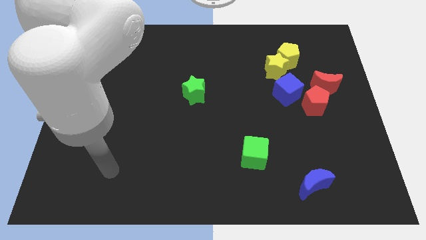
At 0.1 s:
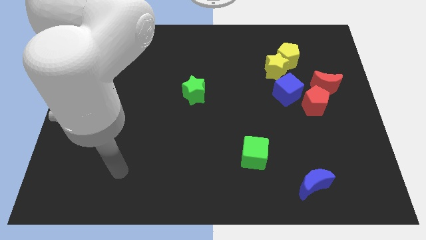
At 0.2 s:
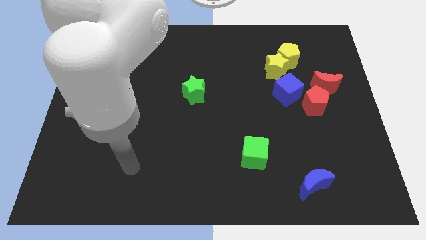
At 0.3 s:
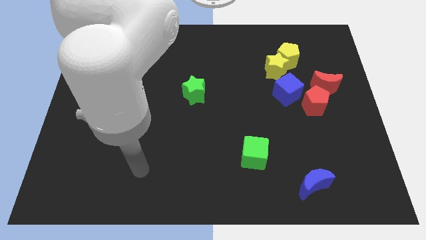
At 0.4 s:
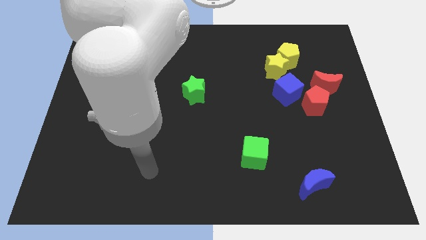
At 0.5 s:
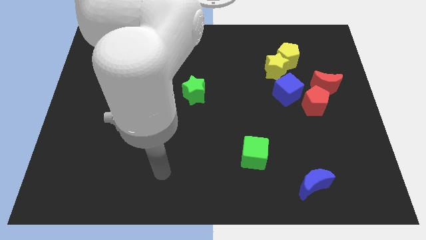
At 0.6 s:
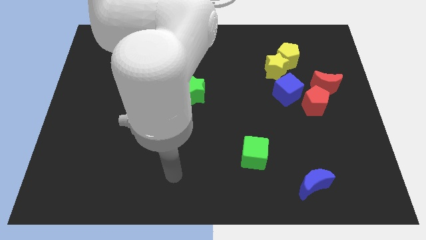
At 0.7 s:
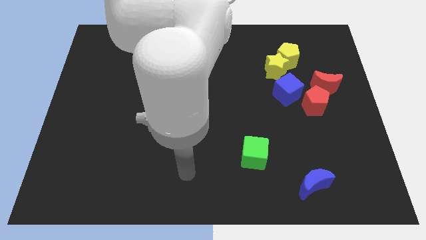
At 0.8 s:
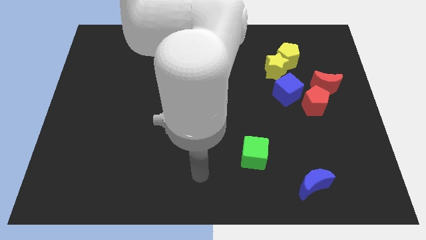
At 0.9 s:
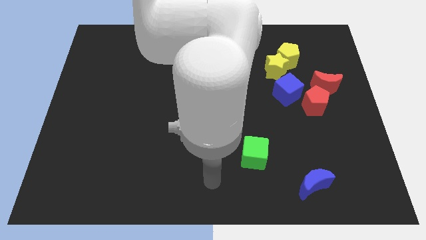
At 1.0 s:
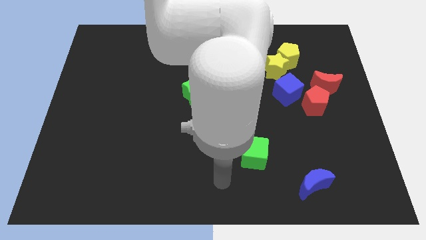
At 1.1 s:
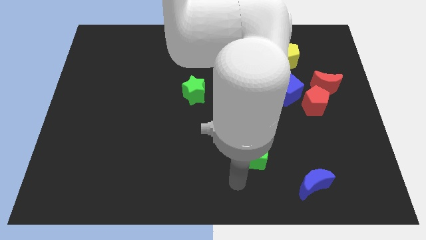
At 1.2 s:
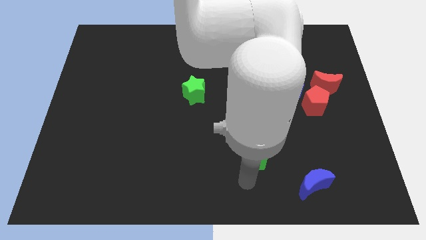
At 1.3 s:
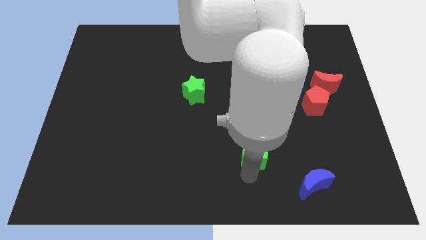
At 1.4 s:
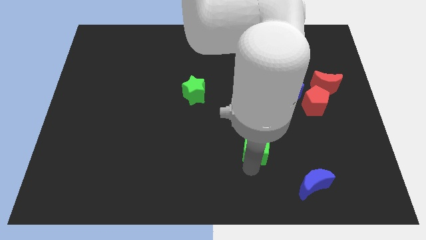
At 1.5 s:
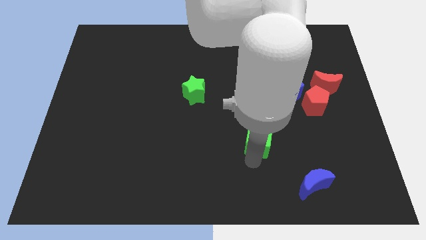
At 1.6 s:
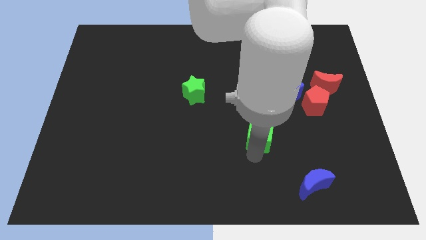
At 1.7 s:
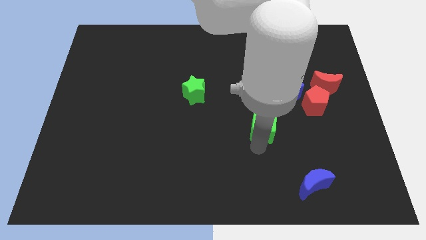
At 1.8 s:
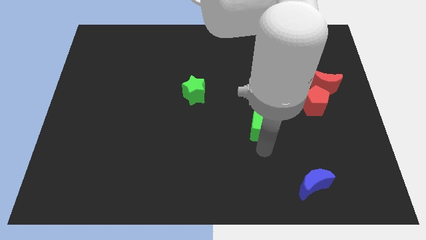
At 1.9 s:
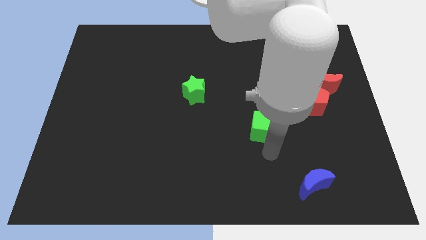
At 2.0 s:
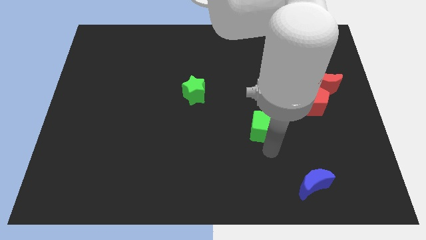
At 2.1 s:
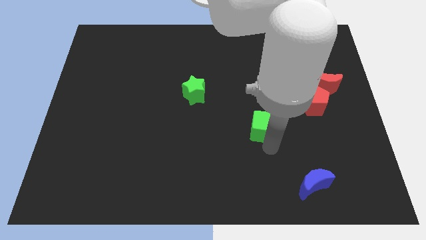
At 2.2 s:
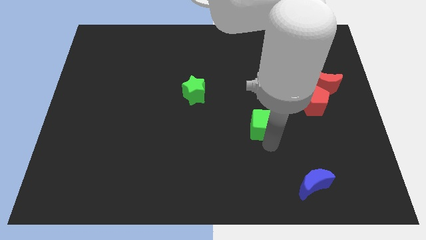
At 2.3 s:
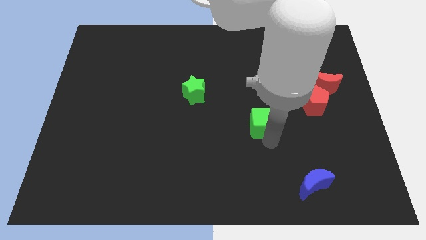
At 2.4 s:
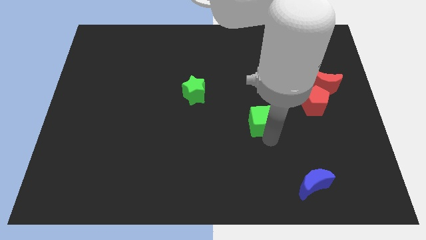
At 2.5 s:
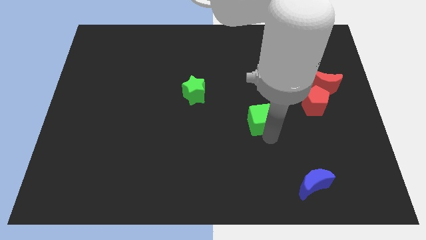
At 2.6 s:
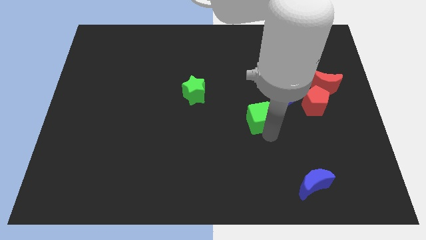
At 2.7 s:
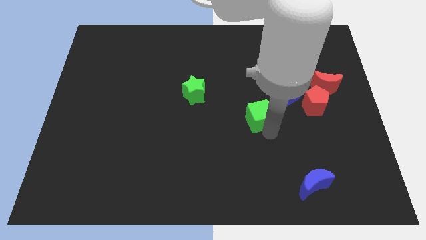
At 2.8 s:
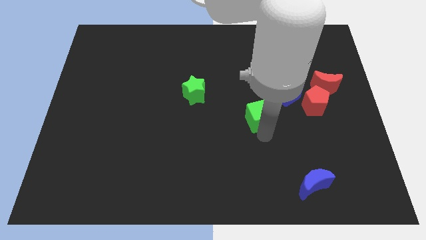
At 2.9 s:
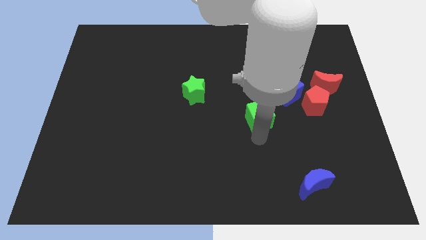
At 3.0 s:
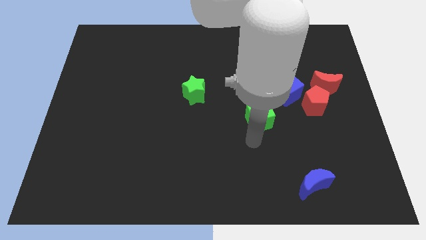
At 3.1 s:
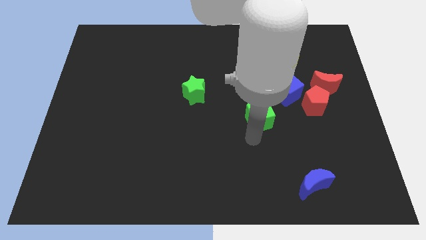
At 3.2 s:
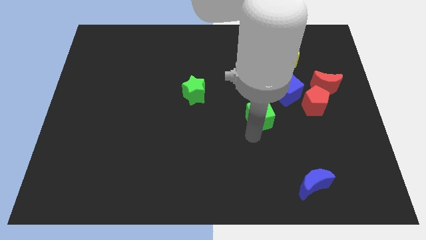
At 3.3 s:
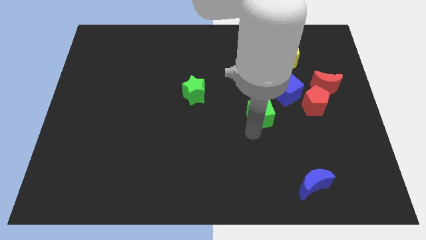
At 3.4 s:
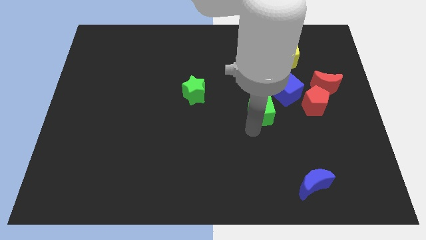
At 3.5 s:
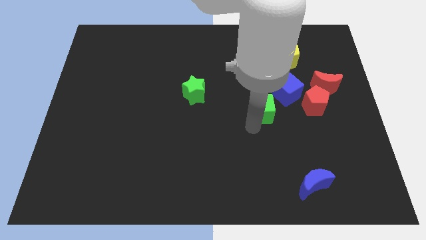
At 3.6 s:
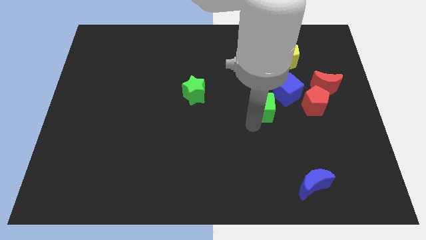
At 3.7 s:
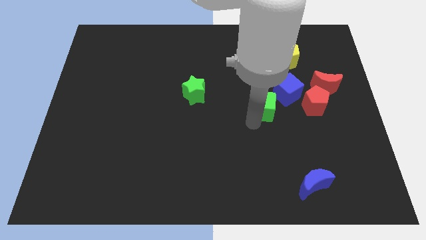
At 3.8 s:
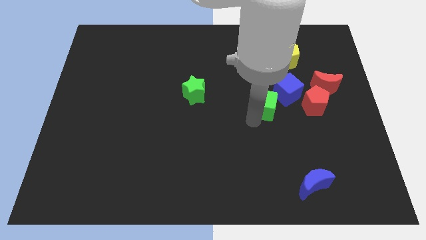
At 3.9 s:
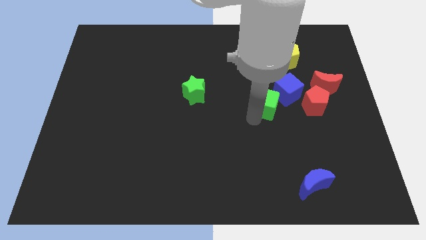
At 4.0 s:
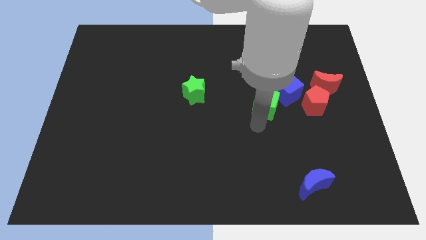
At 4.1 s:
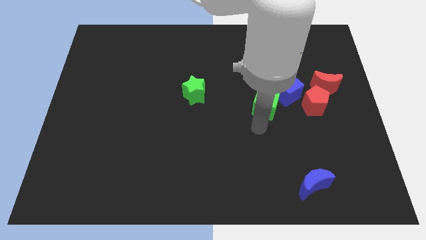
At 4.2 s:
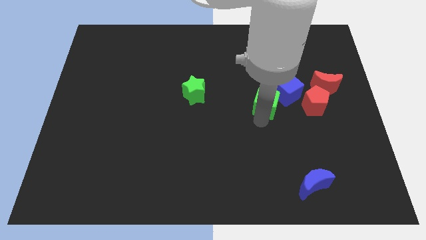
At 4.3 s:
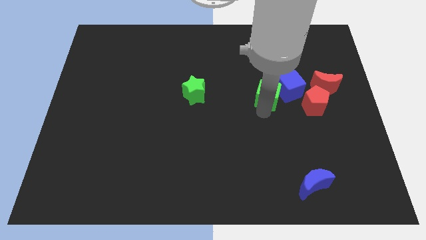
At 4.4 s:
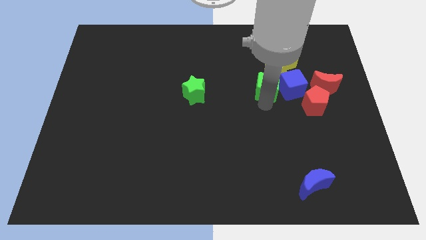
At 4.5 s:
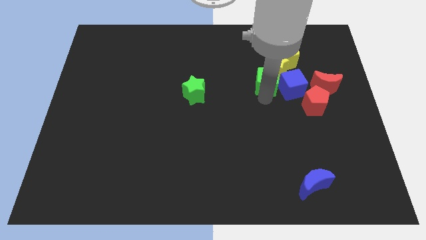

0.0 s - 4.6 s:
push the green cube close to the yellow star

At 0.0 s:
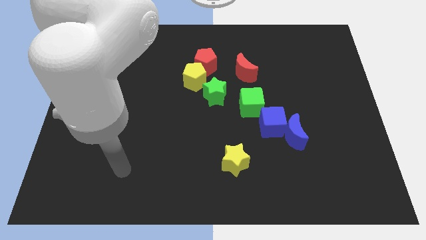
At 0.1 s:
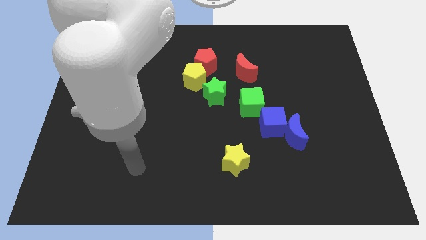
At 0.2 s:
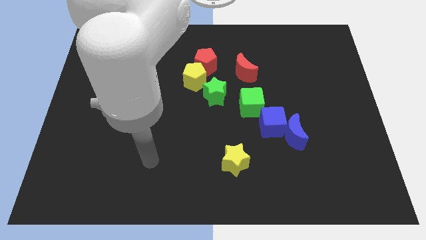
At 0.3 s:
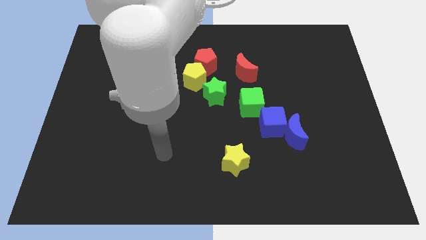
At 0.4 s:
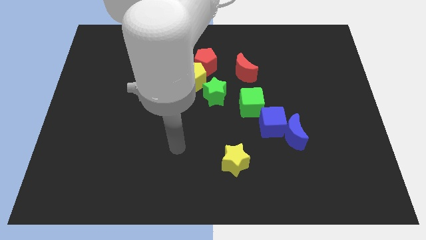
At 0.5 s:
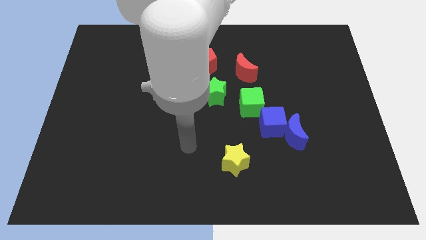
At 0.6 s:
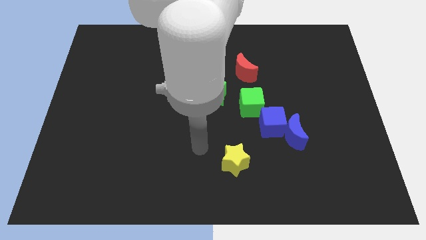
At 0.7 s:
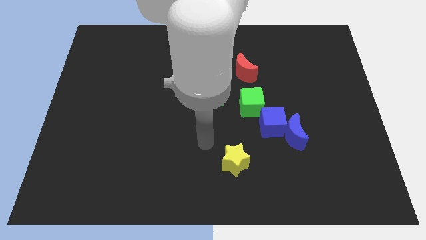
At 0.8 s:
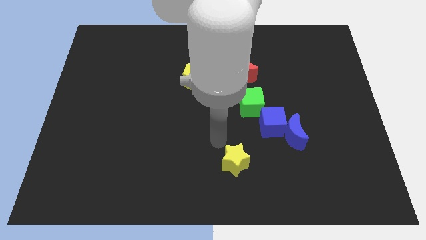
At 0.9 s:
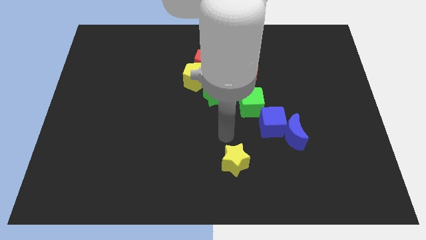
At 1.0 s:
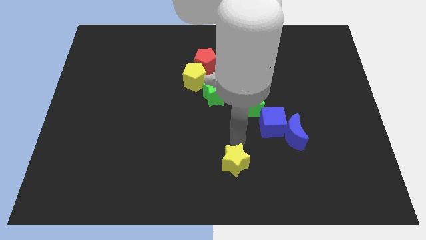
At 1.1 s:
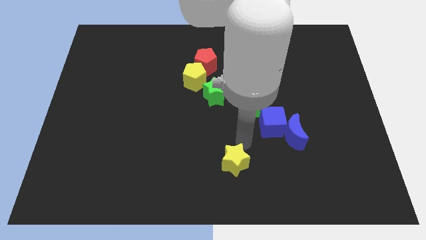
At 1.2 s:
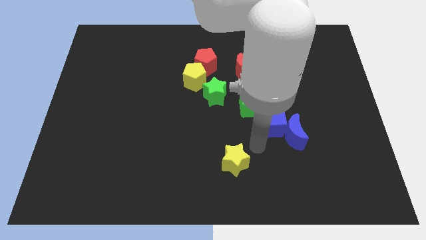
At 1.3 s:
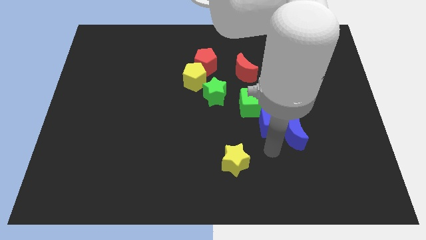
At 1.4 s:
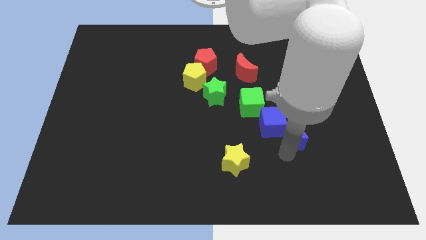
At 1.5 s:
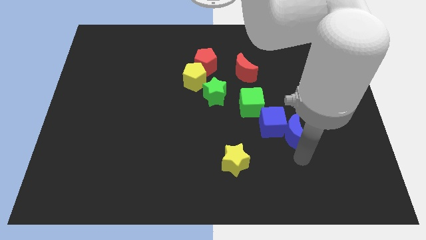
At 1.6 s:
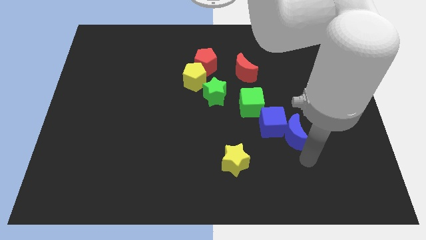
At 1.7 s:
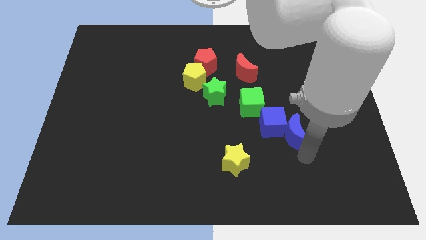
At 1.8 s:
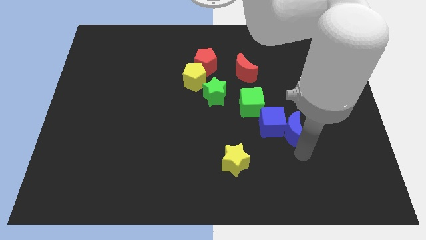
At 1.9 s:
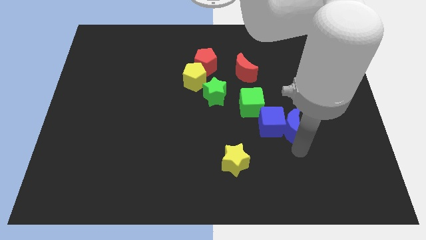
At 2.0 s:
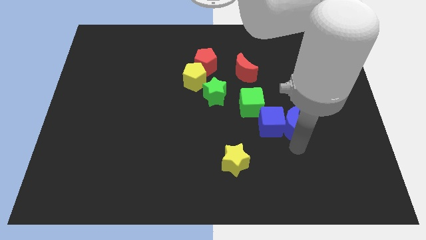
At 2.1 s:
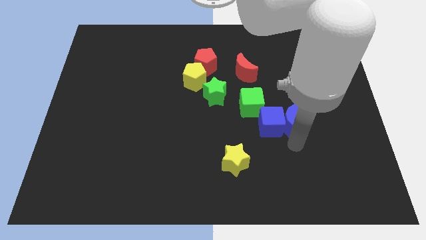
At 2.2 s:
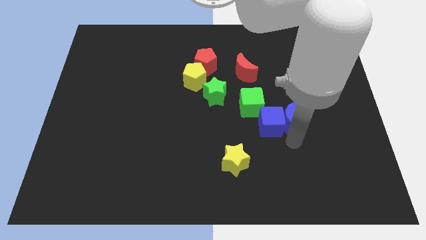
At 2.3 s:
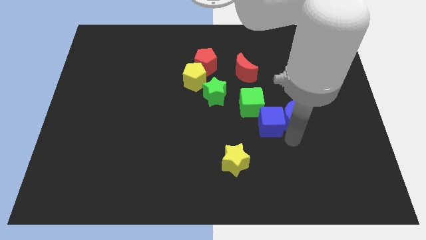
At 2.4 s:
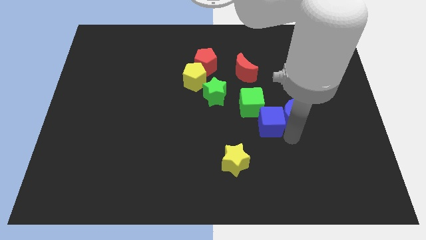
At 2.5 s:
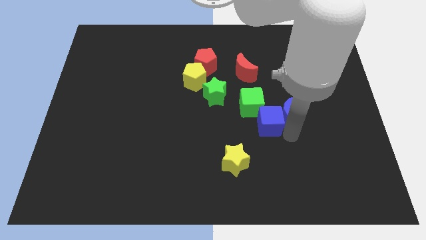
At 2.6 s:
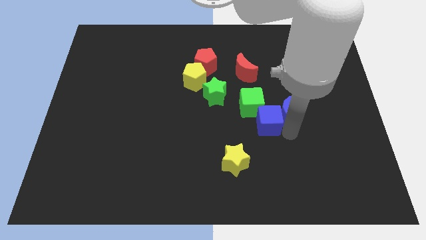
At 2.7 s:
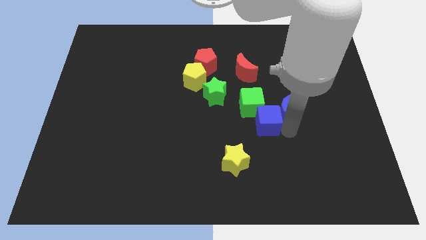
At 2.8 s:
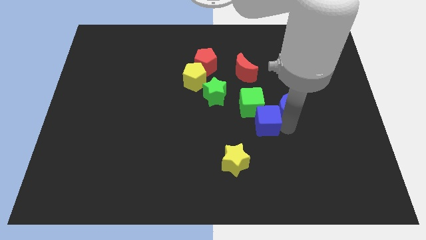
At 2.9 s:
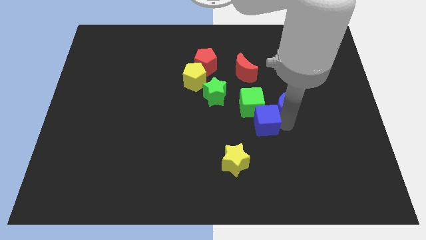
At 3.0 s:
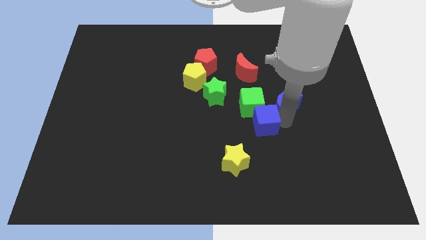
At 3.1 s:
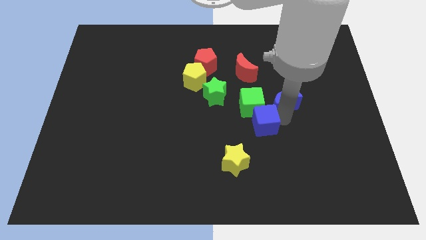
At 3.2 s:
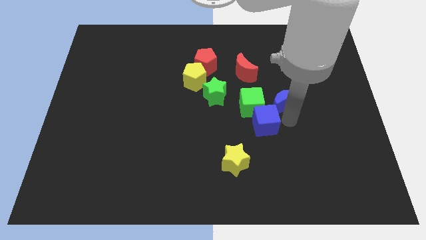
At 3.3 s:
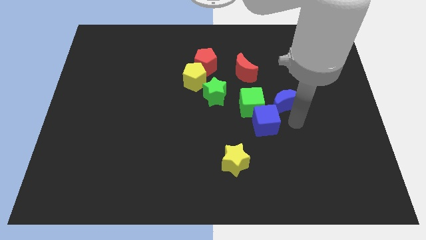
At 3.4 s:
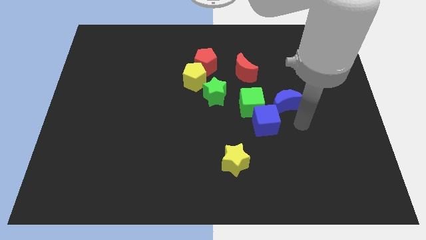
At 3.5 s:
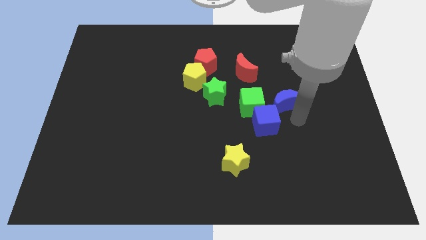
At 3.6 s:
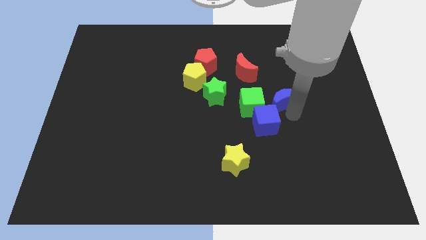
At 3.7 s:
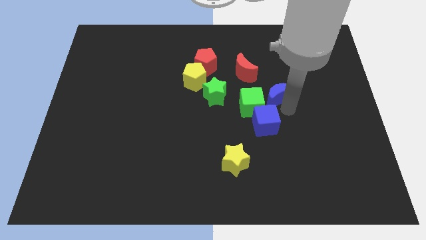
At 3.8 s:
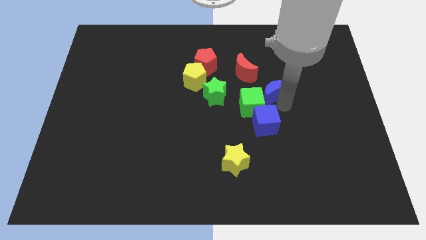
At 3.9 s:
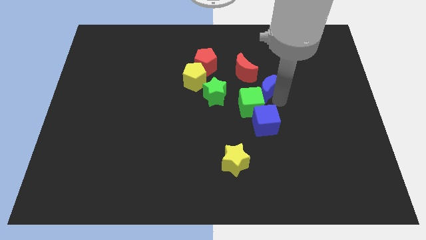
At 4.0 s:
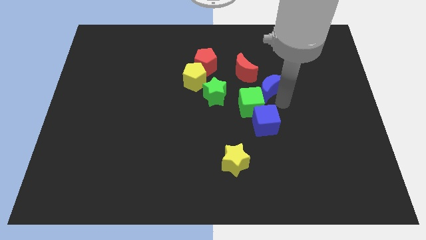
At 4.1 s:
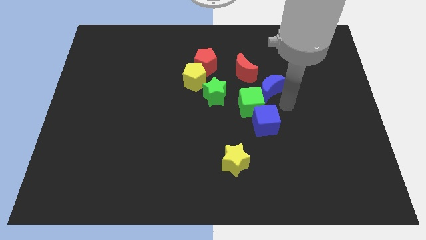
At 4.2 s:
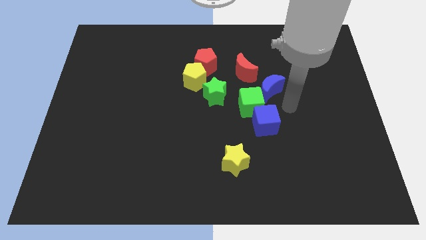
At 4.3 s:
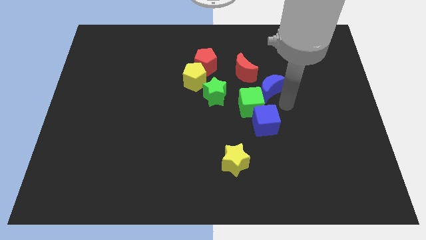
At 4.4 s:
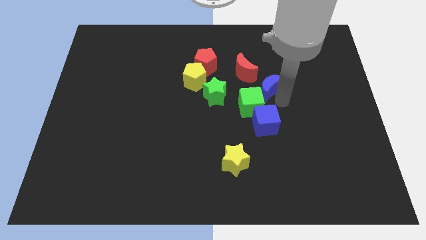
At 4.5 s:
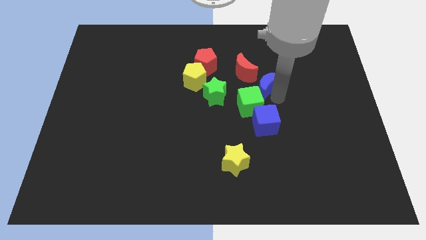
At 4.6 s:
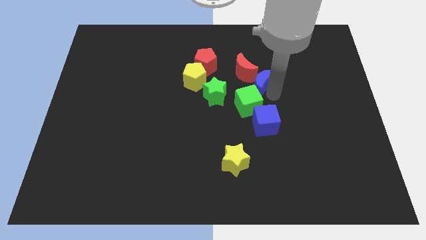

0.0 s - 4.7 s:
put the blue moon close to the red moon
